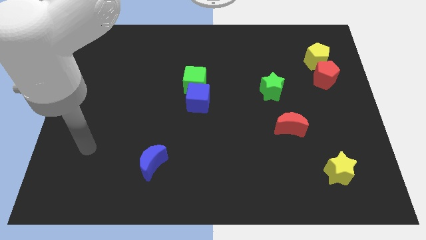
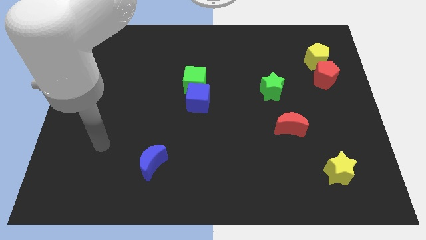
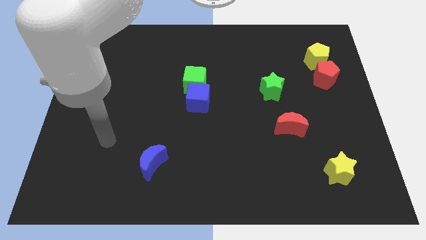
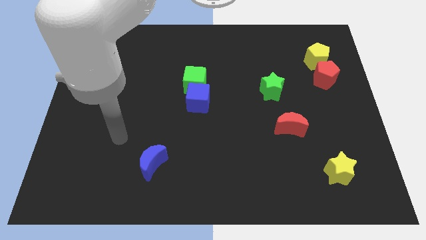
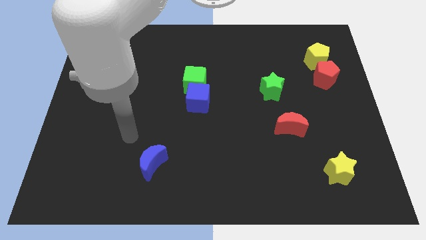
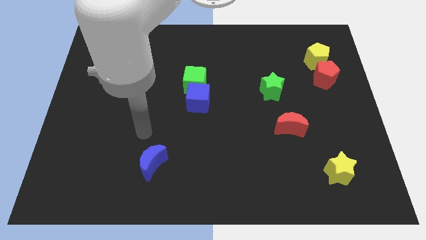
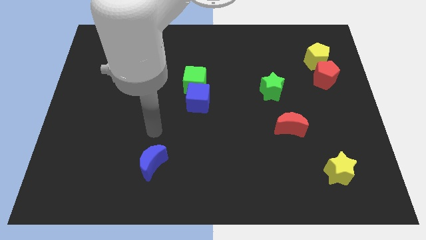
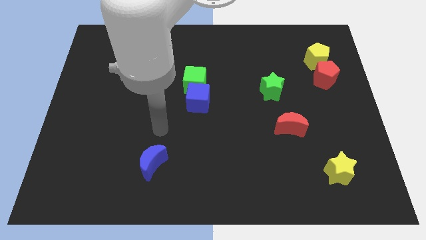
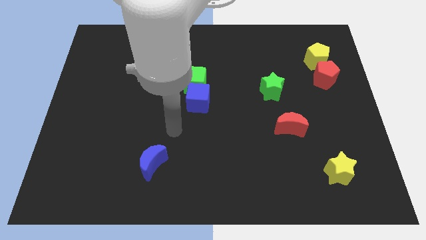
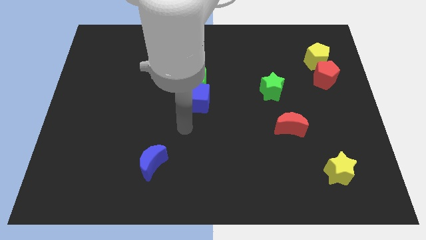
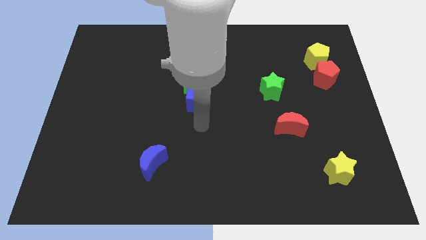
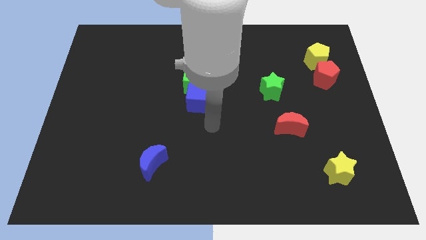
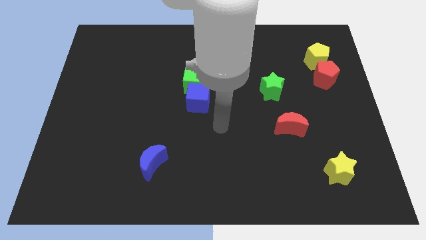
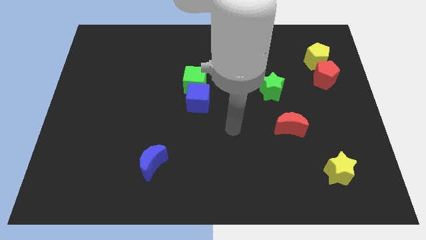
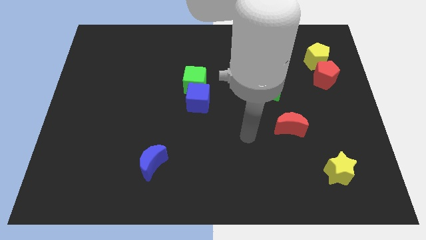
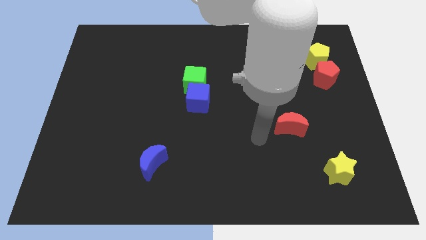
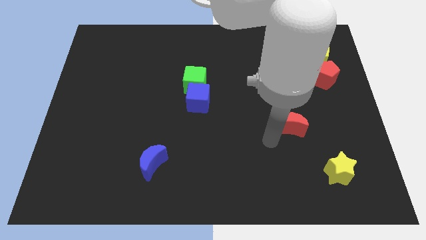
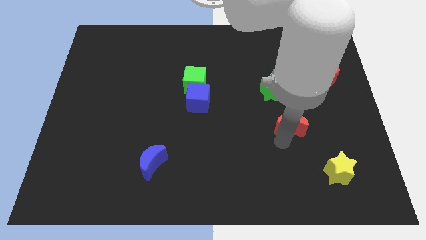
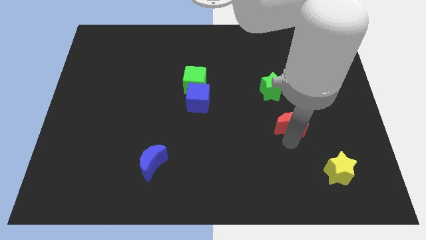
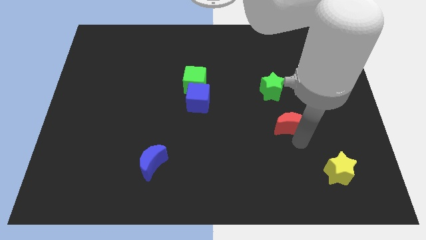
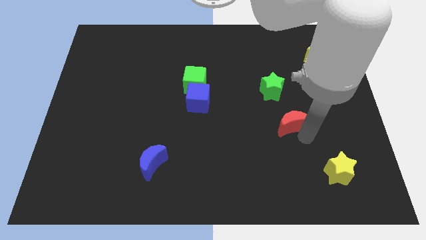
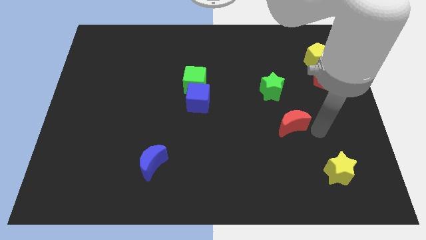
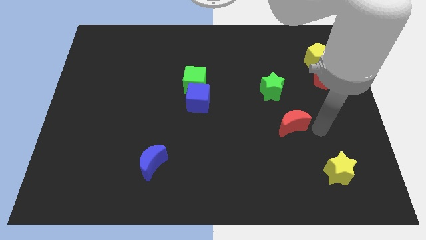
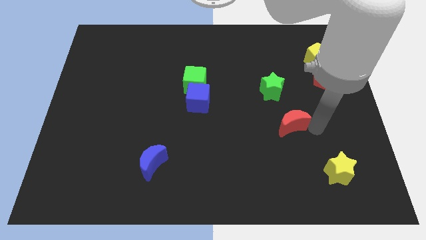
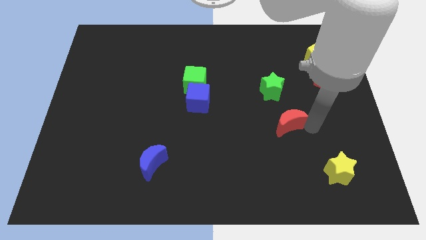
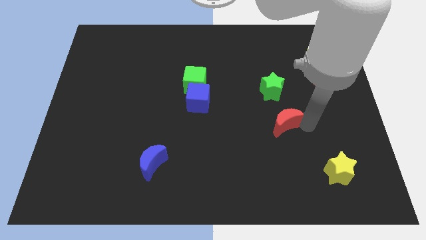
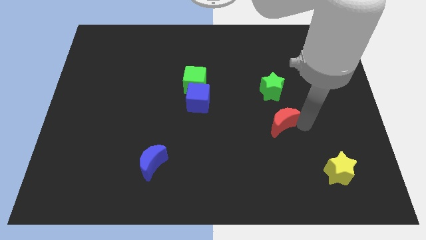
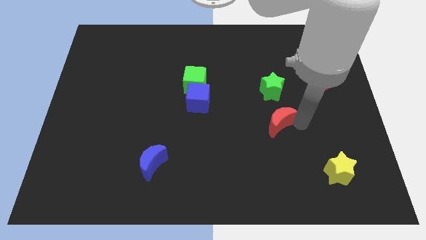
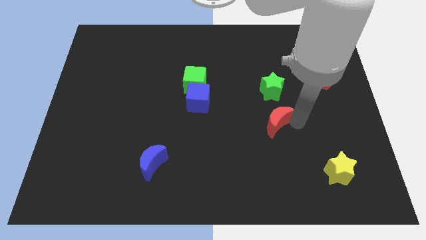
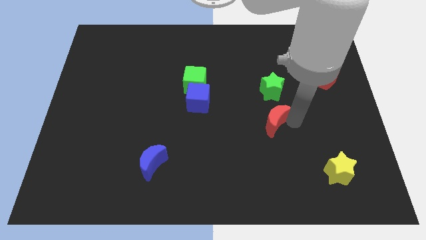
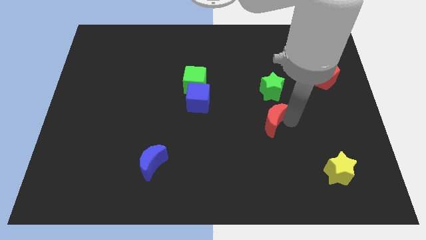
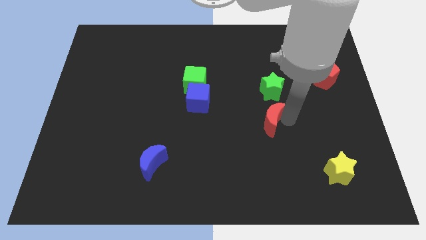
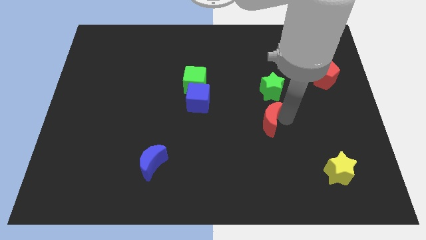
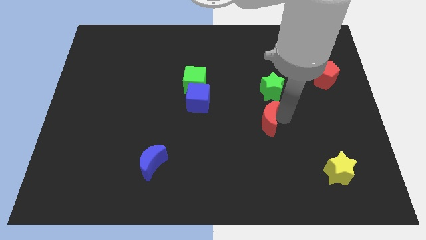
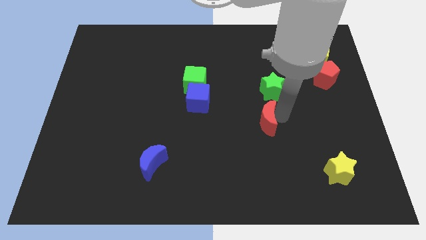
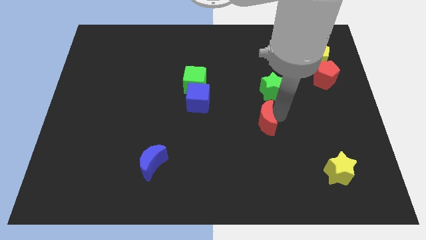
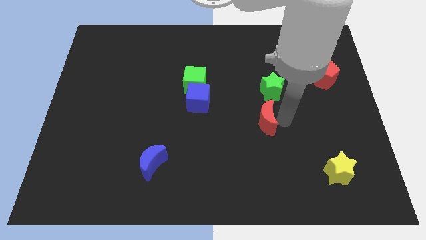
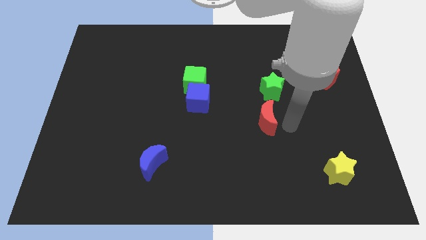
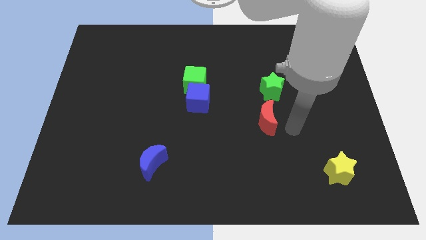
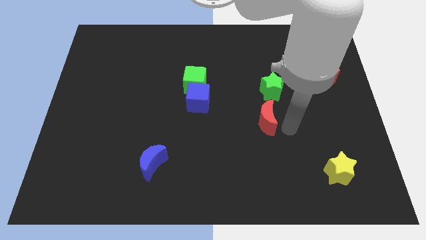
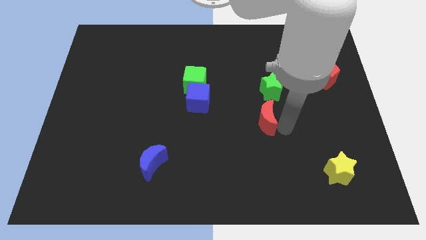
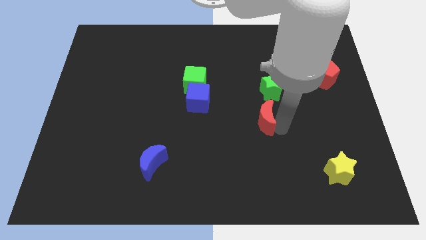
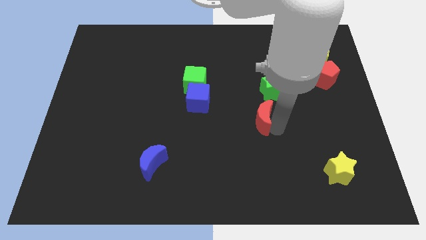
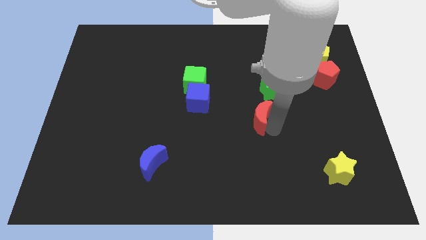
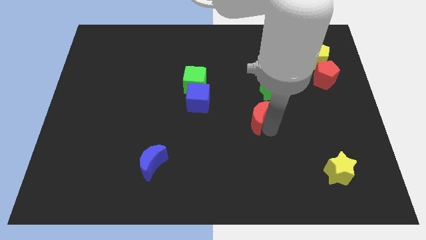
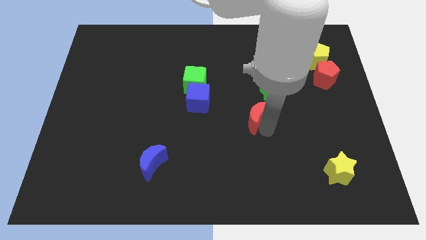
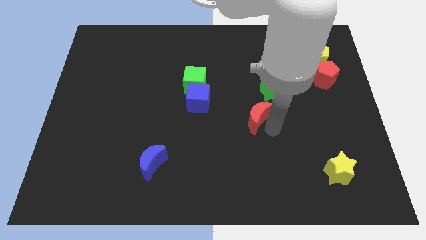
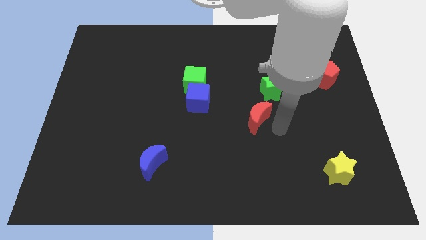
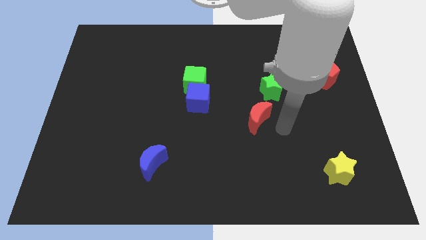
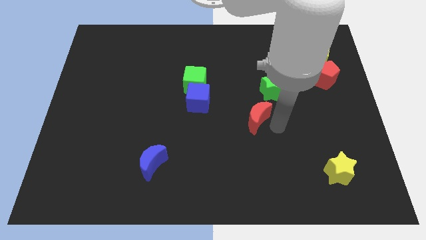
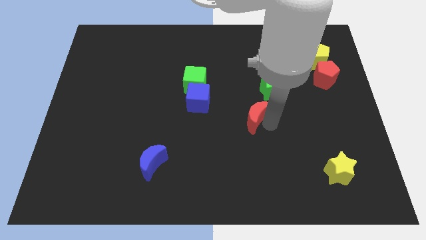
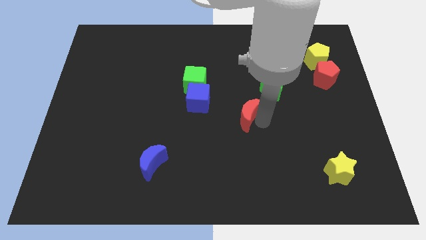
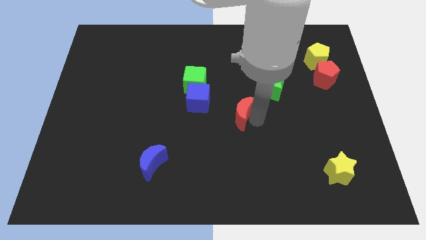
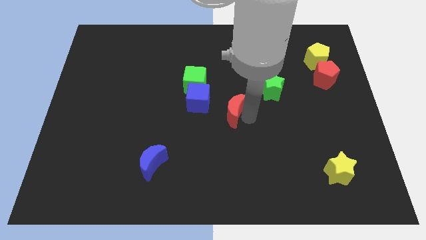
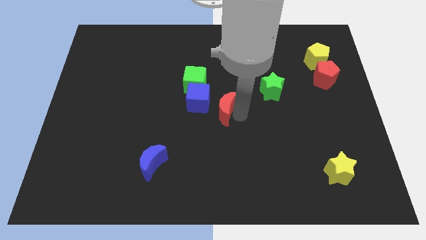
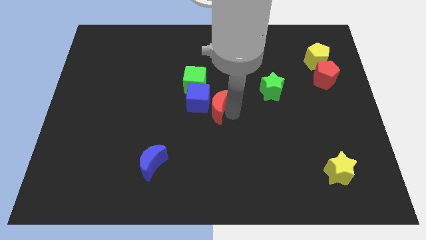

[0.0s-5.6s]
move the red moon towards the blue cube
